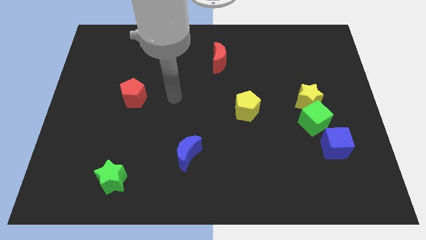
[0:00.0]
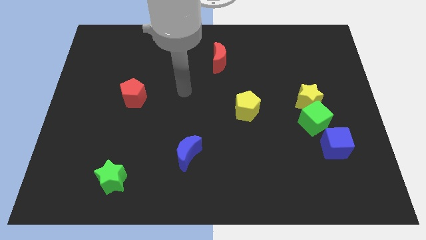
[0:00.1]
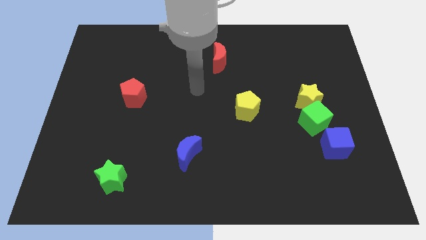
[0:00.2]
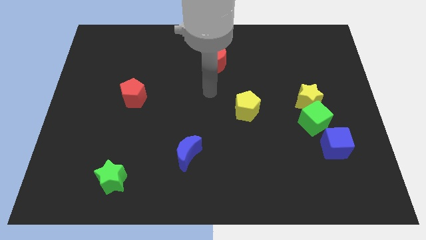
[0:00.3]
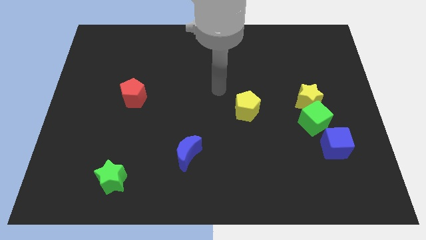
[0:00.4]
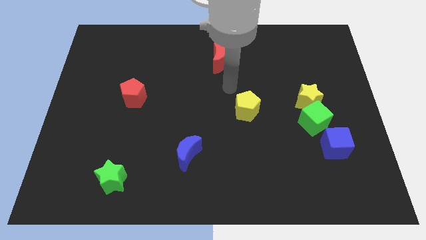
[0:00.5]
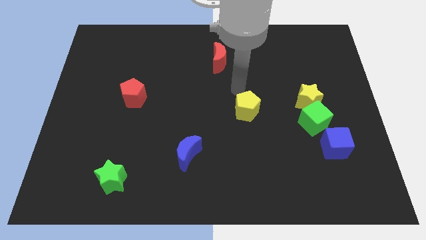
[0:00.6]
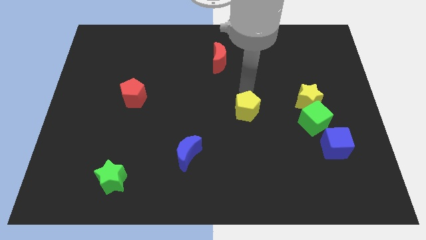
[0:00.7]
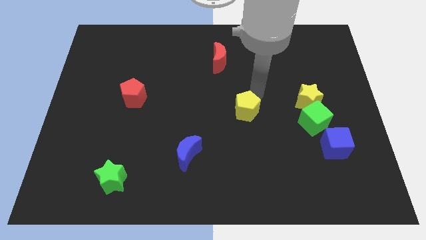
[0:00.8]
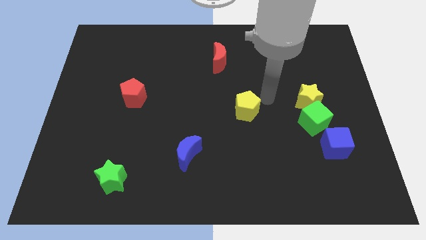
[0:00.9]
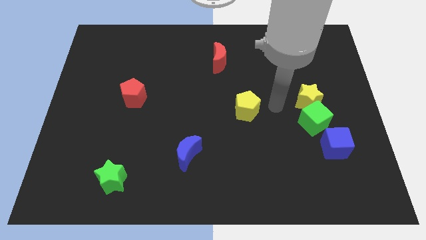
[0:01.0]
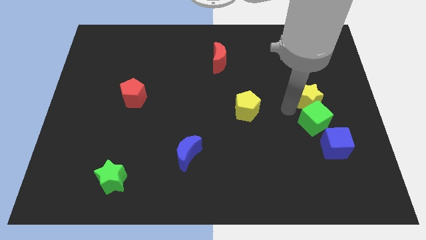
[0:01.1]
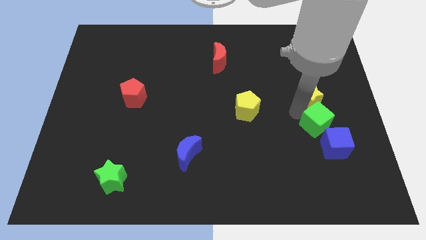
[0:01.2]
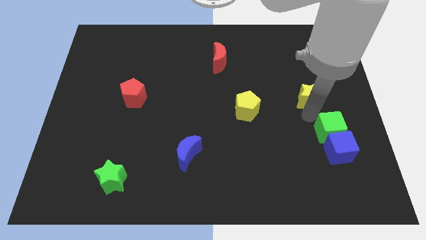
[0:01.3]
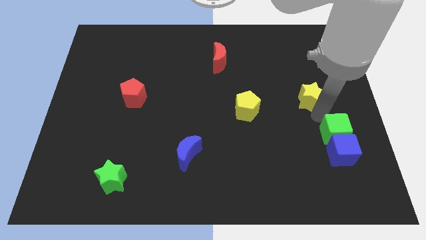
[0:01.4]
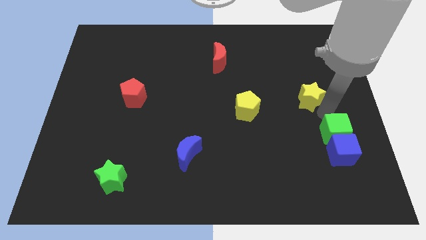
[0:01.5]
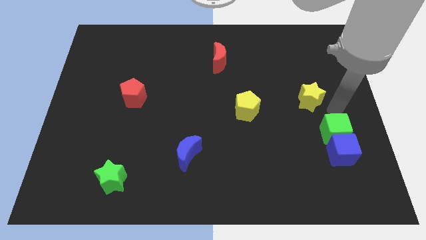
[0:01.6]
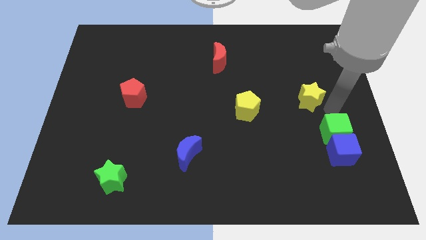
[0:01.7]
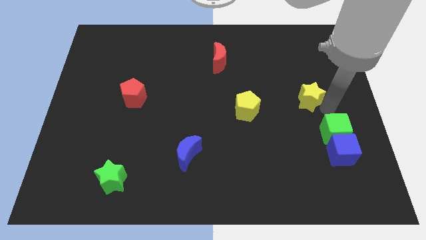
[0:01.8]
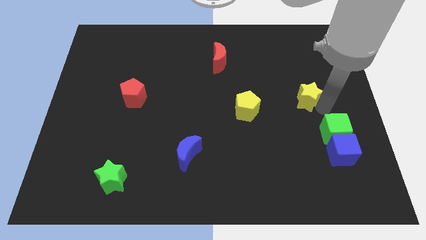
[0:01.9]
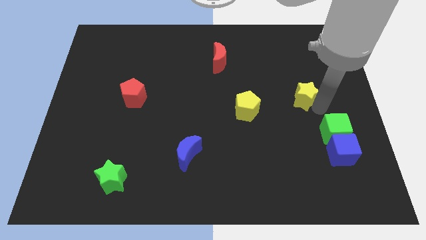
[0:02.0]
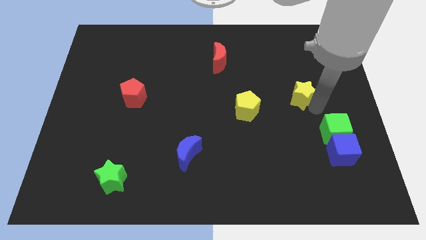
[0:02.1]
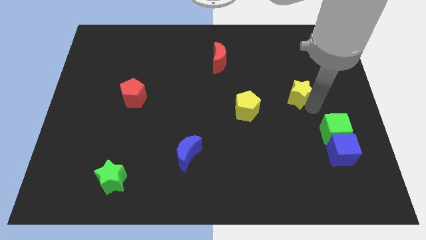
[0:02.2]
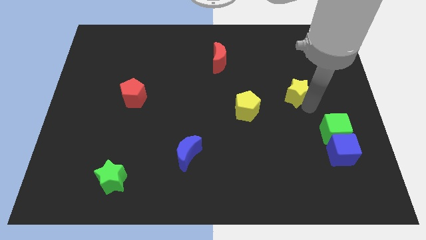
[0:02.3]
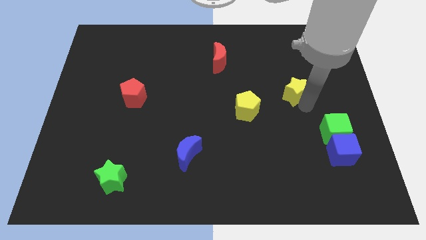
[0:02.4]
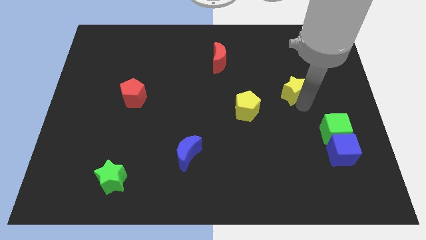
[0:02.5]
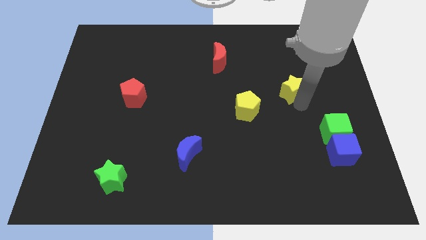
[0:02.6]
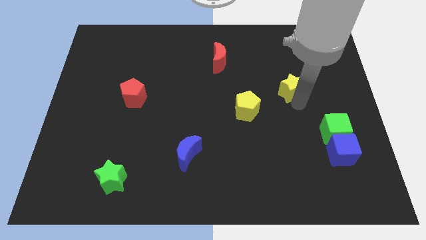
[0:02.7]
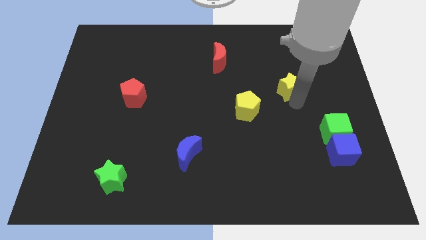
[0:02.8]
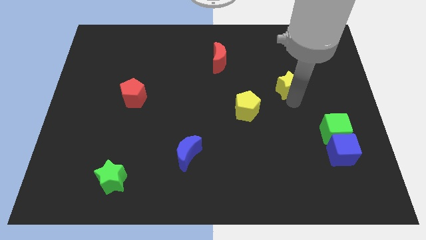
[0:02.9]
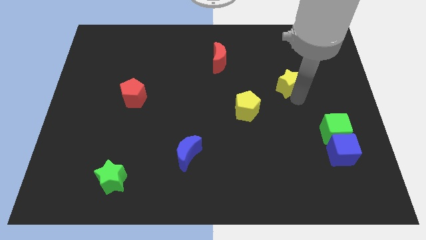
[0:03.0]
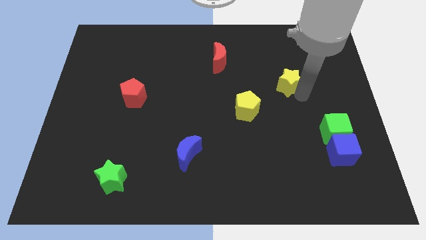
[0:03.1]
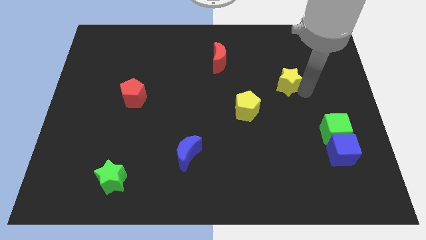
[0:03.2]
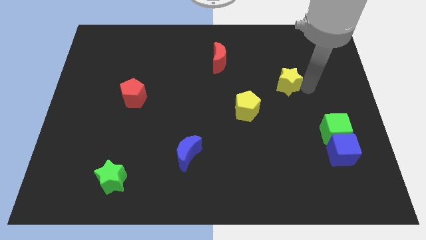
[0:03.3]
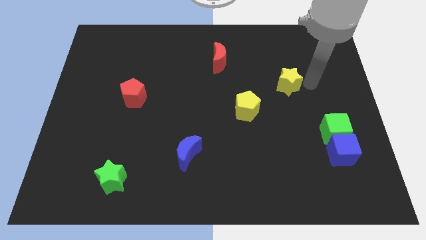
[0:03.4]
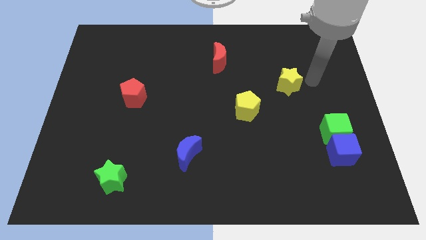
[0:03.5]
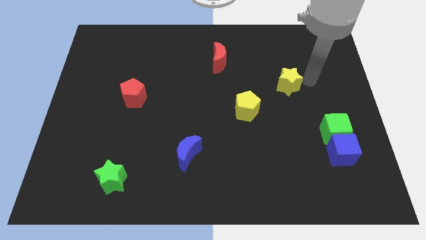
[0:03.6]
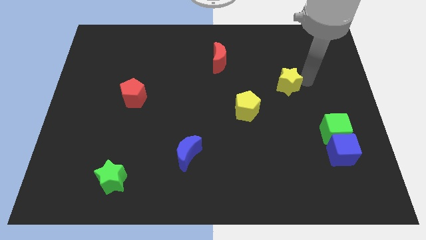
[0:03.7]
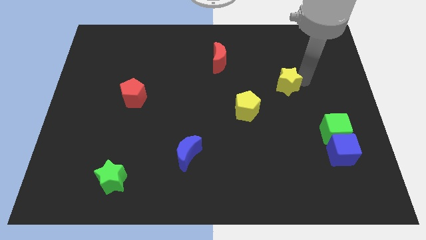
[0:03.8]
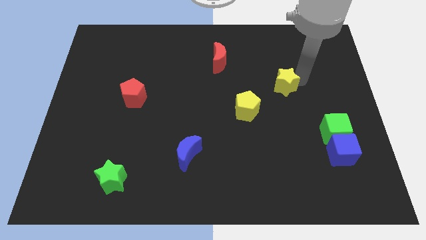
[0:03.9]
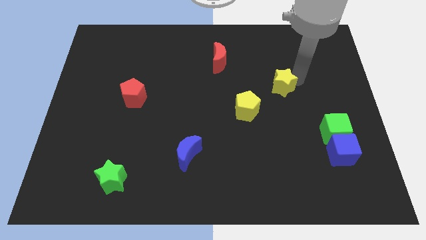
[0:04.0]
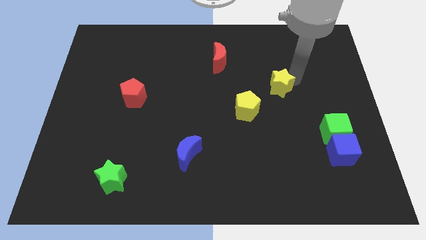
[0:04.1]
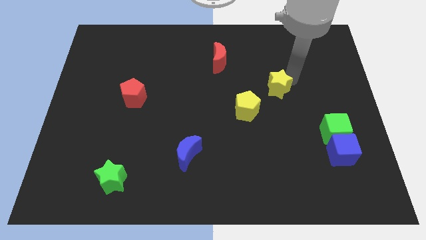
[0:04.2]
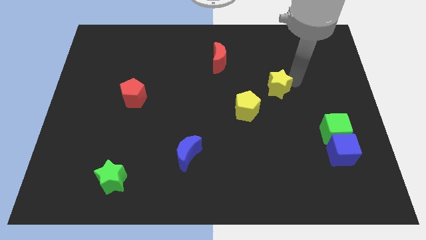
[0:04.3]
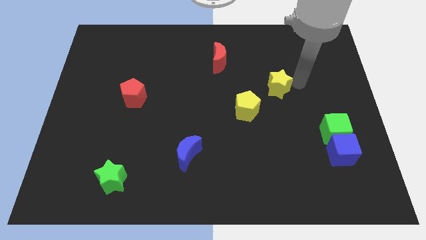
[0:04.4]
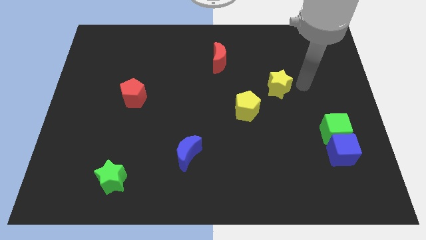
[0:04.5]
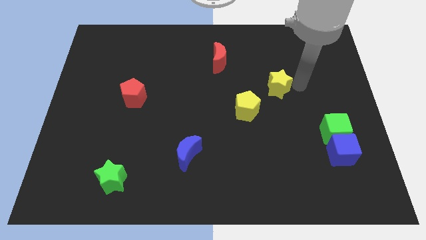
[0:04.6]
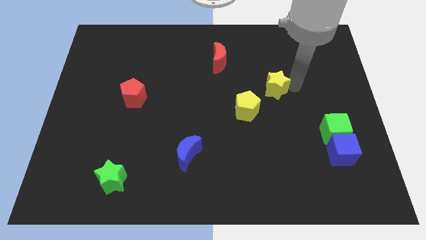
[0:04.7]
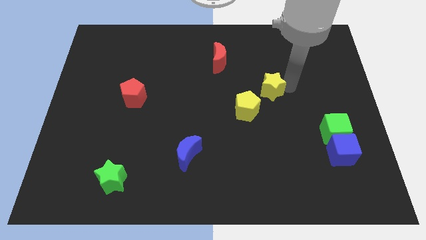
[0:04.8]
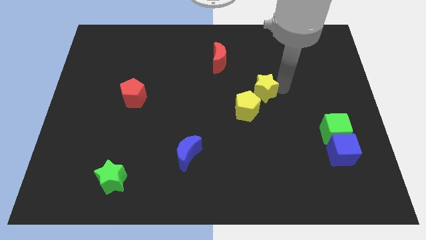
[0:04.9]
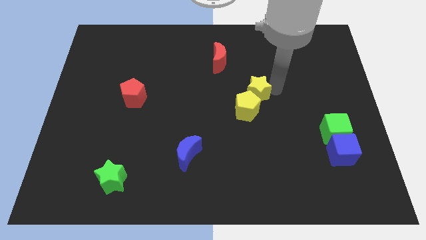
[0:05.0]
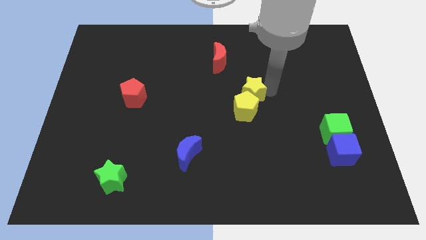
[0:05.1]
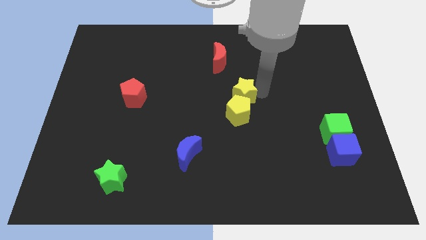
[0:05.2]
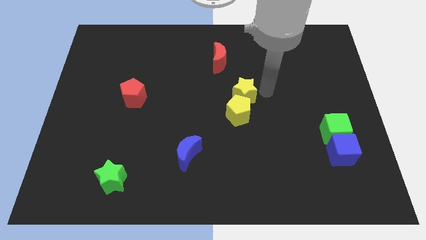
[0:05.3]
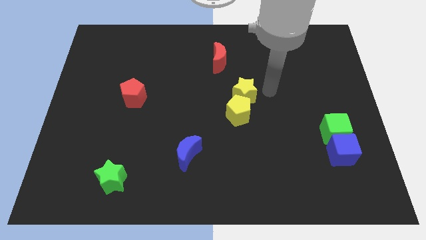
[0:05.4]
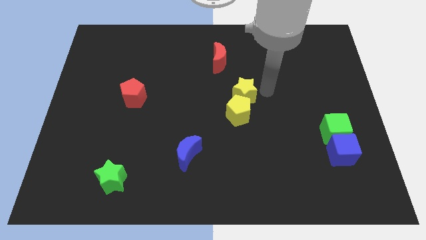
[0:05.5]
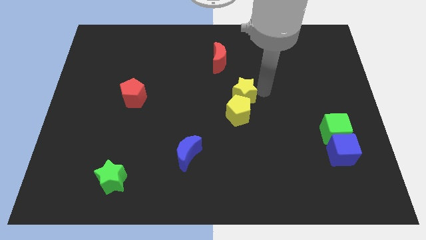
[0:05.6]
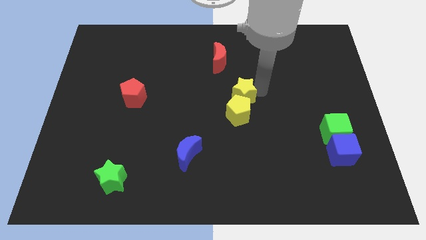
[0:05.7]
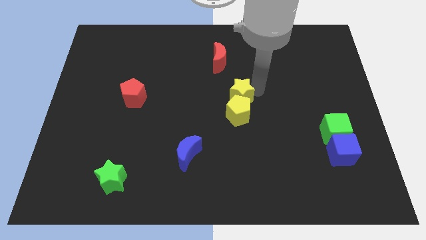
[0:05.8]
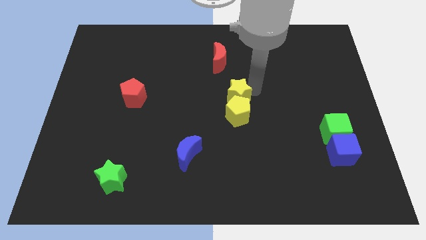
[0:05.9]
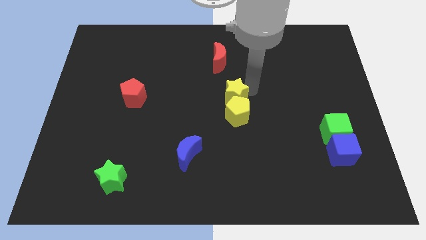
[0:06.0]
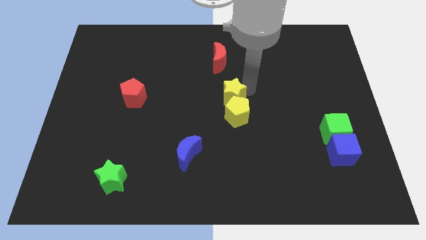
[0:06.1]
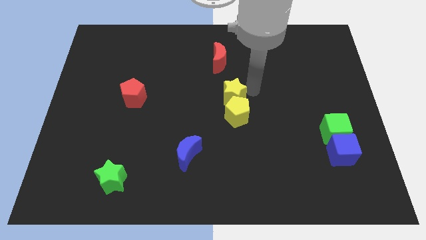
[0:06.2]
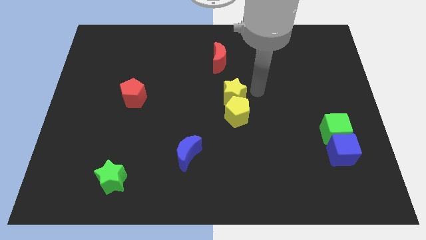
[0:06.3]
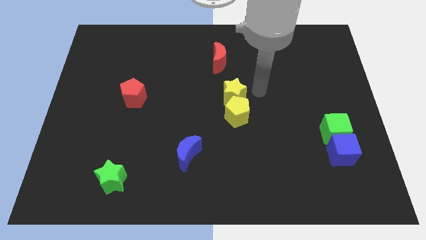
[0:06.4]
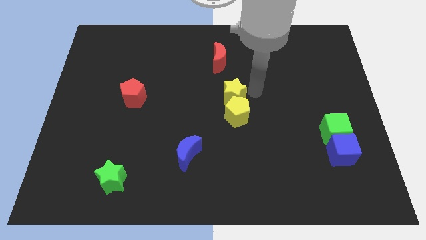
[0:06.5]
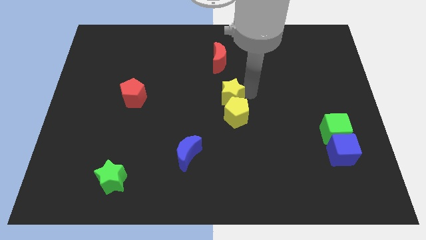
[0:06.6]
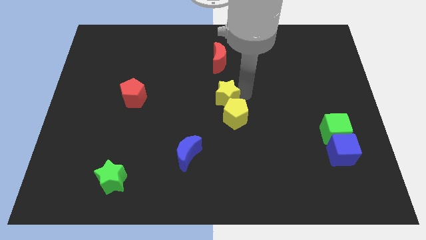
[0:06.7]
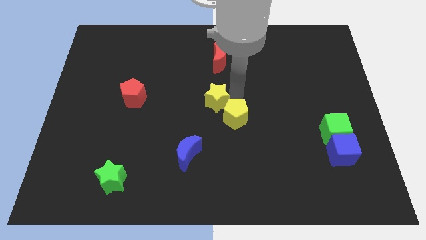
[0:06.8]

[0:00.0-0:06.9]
move the yellow star to the left

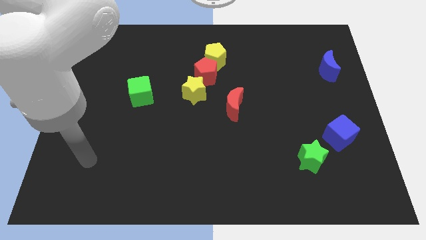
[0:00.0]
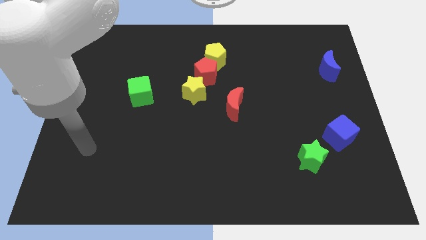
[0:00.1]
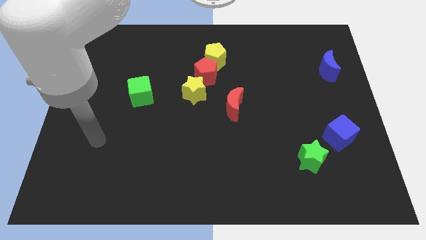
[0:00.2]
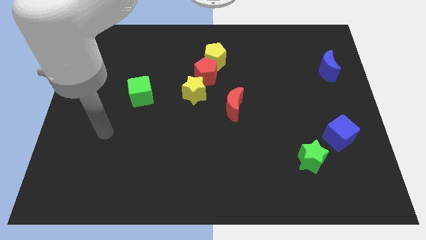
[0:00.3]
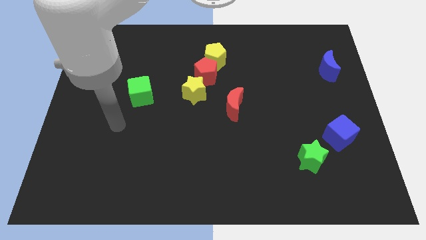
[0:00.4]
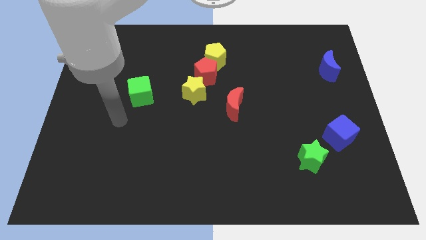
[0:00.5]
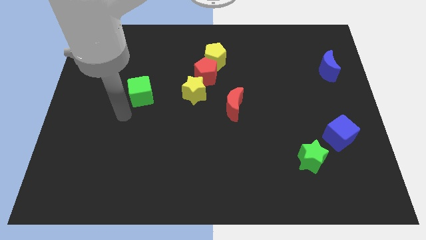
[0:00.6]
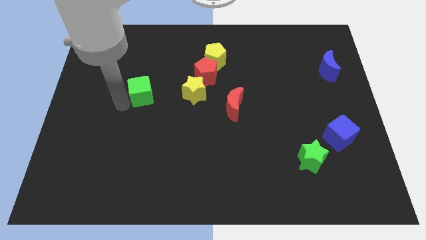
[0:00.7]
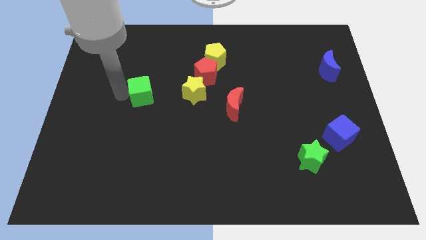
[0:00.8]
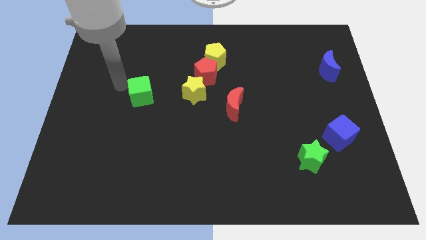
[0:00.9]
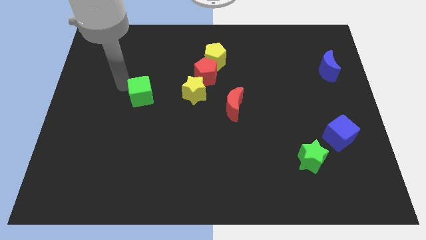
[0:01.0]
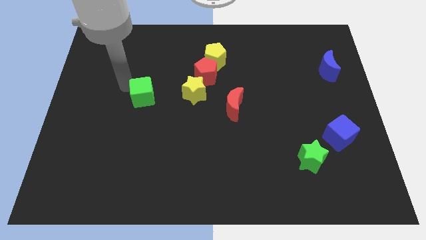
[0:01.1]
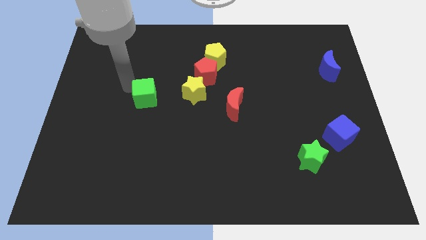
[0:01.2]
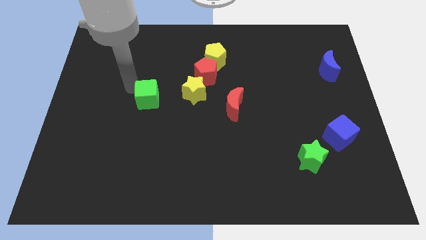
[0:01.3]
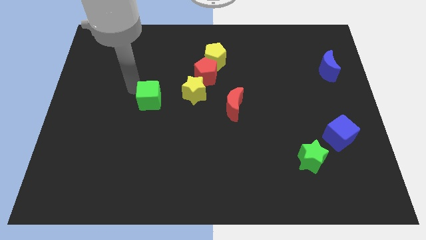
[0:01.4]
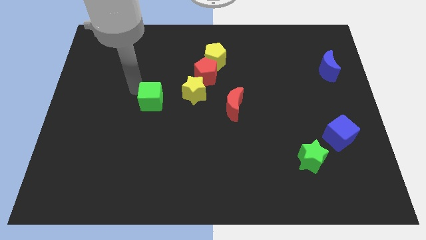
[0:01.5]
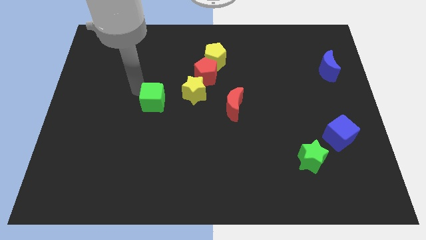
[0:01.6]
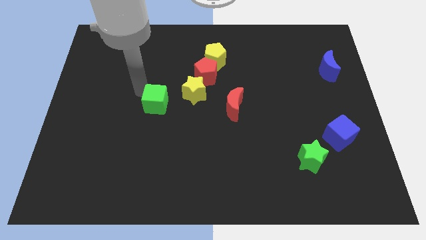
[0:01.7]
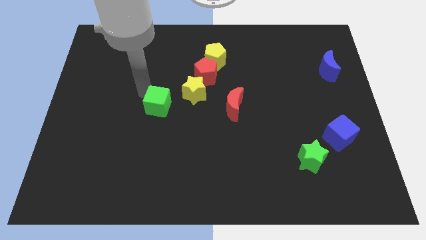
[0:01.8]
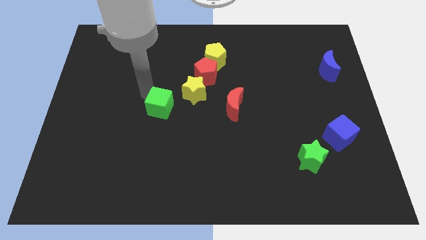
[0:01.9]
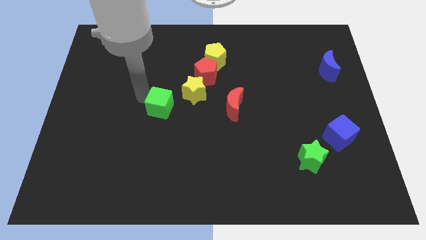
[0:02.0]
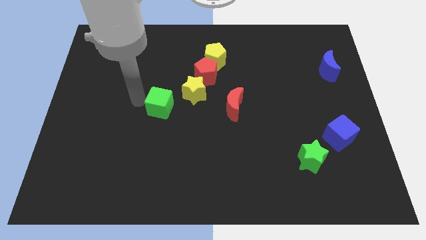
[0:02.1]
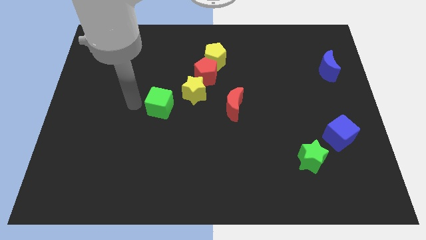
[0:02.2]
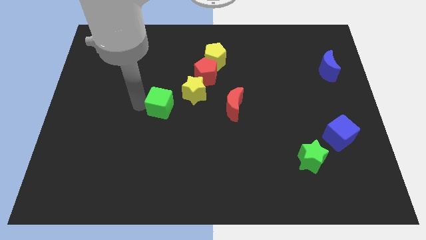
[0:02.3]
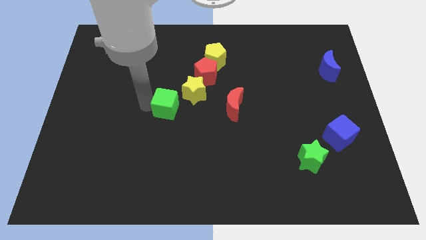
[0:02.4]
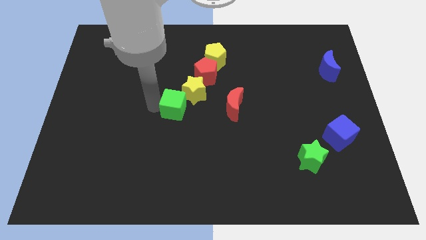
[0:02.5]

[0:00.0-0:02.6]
slide the green cube right somewhat
